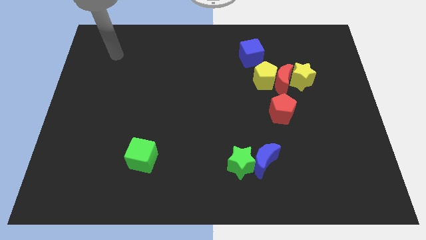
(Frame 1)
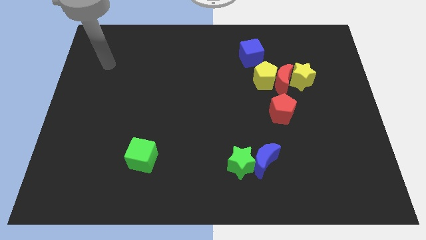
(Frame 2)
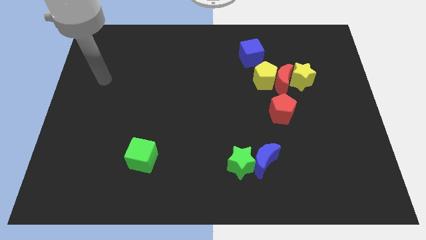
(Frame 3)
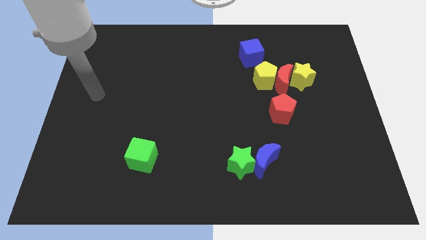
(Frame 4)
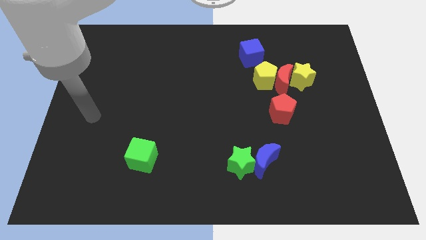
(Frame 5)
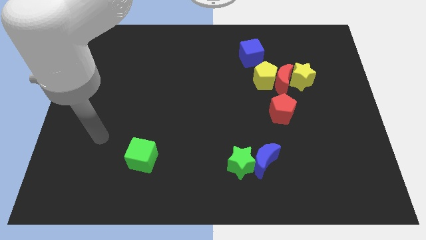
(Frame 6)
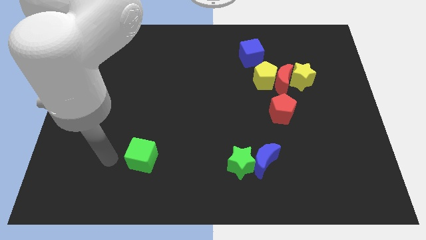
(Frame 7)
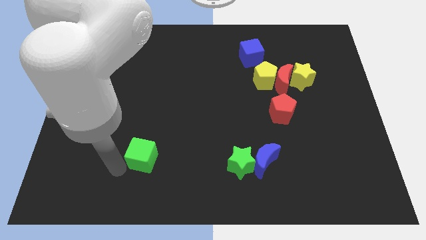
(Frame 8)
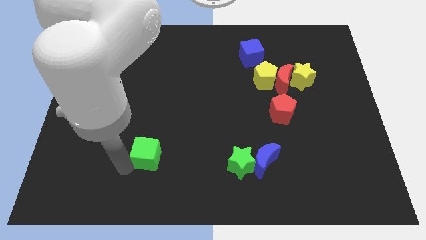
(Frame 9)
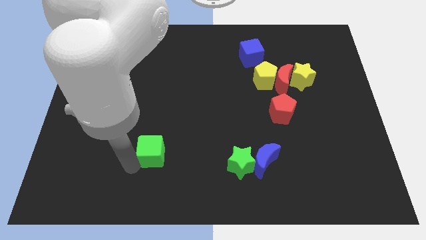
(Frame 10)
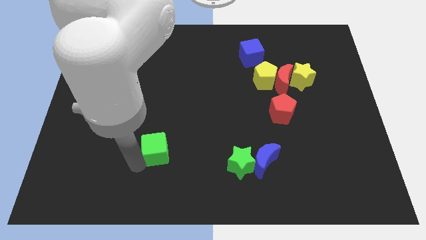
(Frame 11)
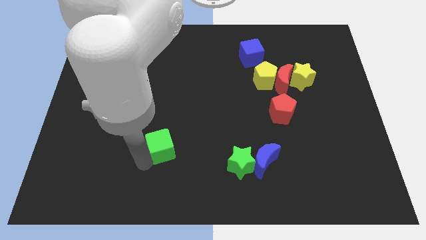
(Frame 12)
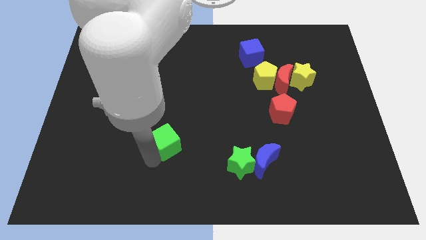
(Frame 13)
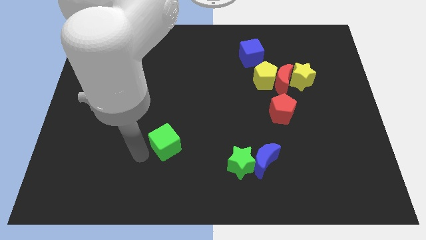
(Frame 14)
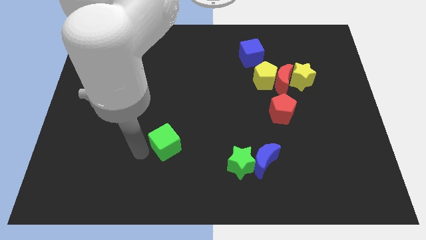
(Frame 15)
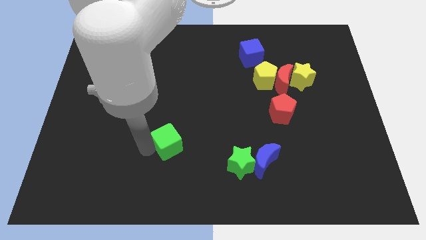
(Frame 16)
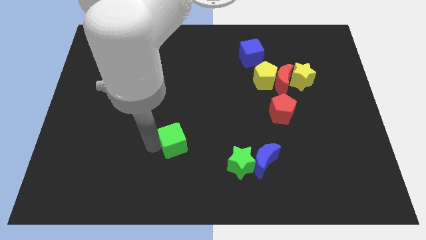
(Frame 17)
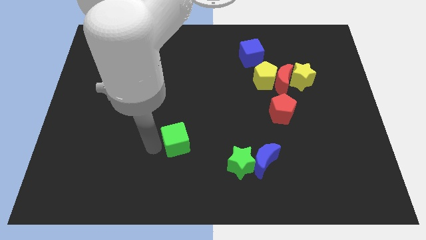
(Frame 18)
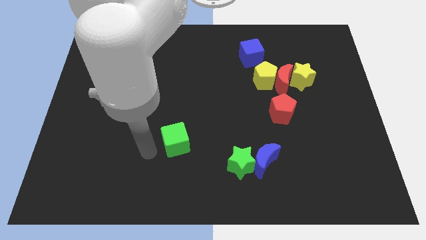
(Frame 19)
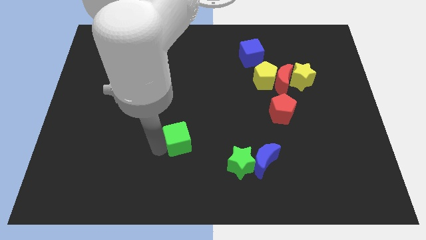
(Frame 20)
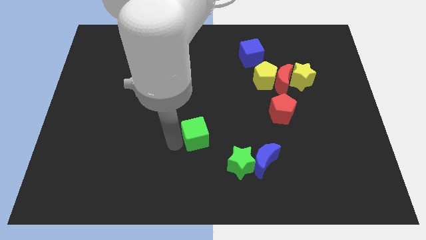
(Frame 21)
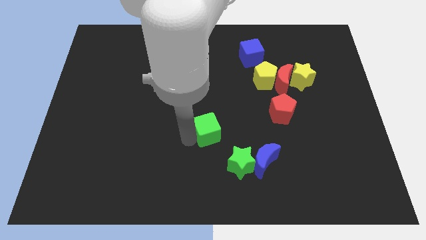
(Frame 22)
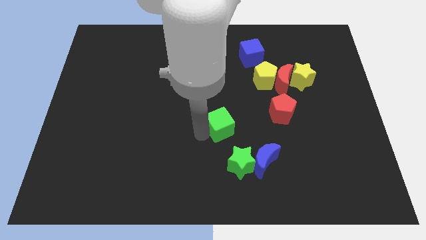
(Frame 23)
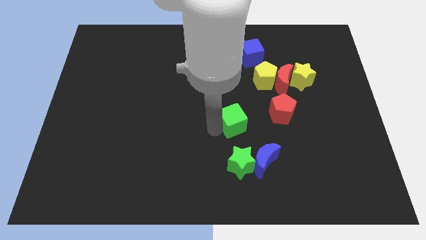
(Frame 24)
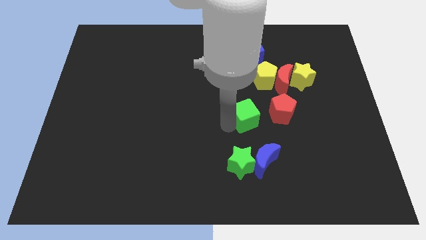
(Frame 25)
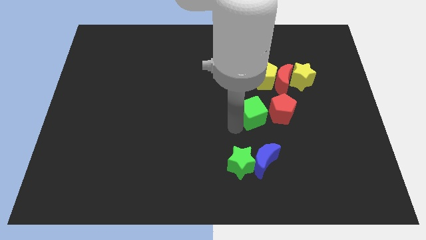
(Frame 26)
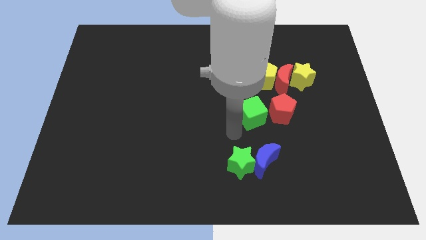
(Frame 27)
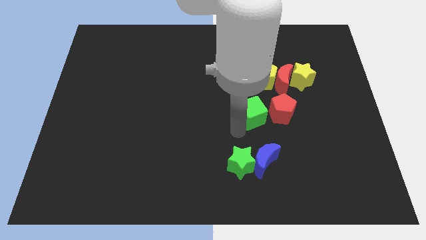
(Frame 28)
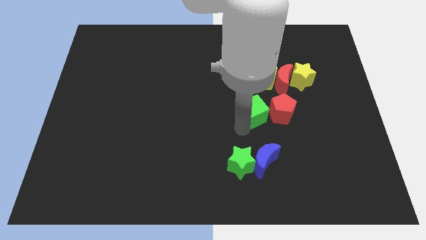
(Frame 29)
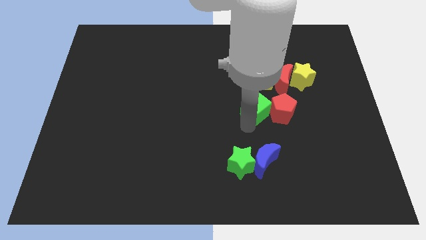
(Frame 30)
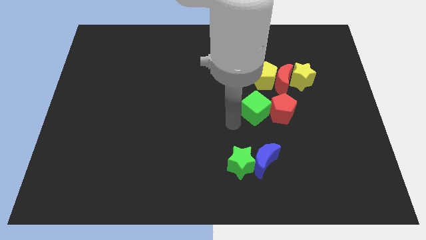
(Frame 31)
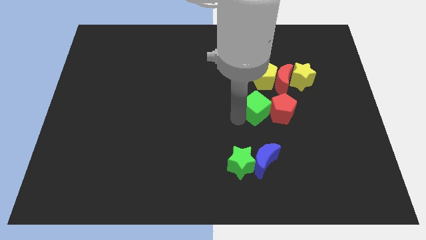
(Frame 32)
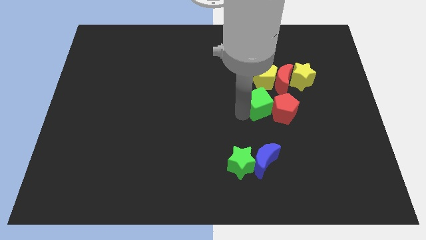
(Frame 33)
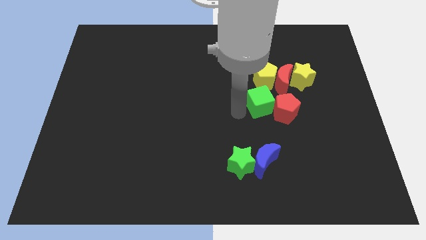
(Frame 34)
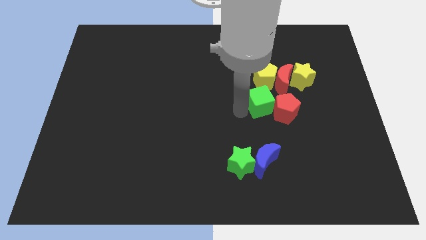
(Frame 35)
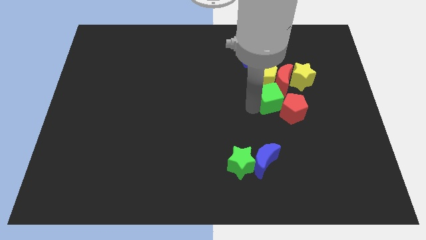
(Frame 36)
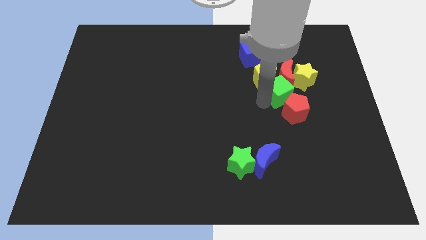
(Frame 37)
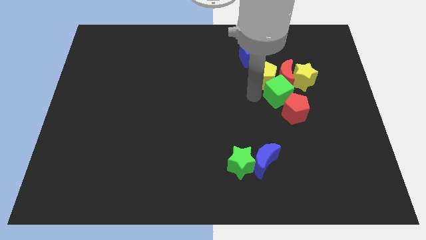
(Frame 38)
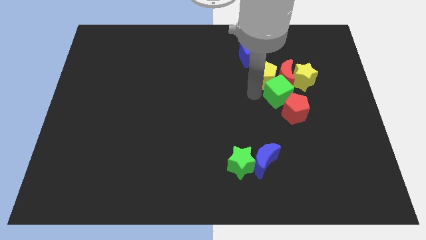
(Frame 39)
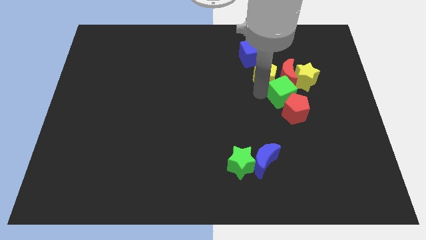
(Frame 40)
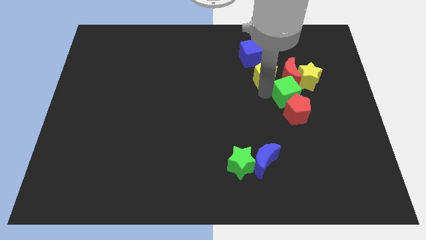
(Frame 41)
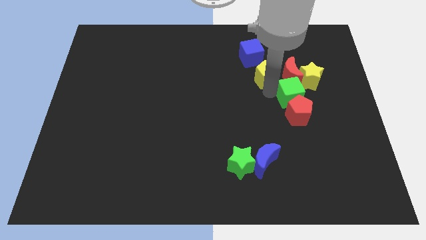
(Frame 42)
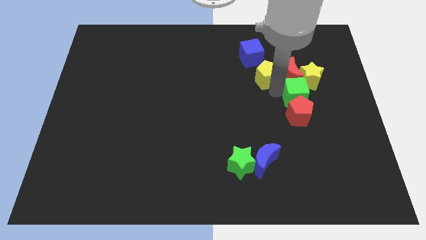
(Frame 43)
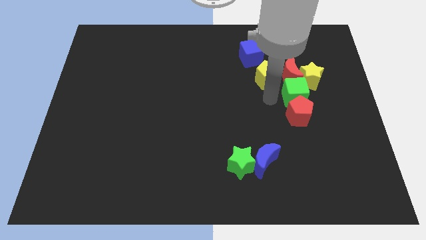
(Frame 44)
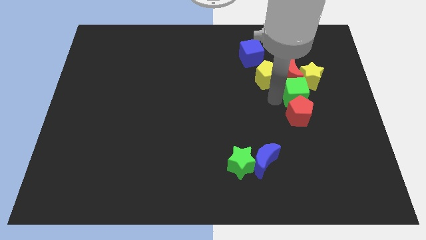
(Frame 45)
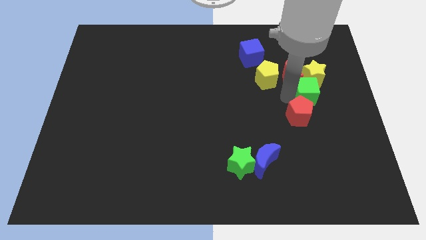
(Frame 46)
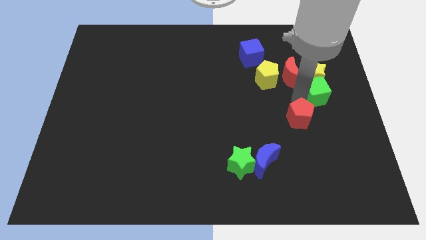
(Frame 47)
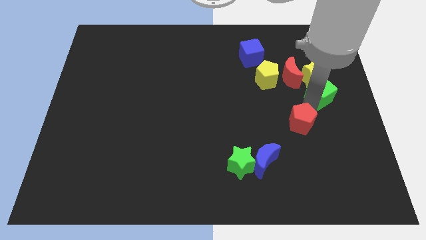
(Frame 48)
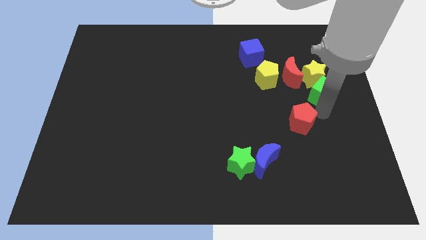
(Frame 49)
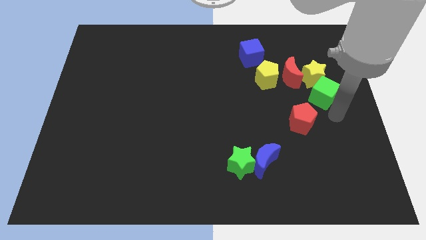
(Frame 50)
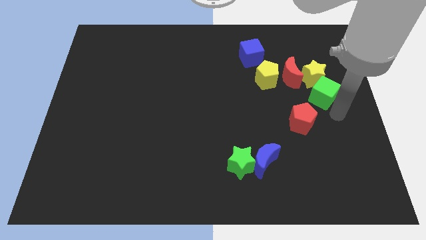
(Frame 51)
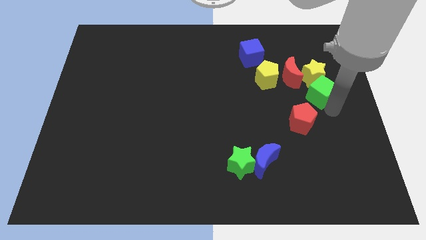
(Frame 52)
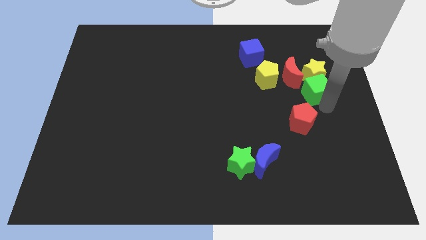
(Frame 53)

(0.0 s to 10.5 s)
push the green cube to the right of the yellow pentagon

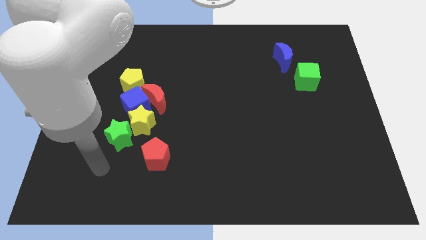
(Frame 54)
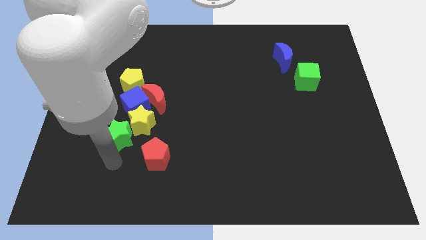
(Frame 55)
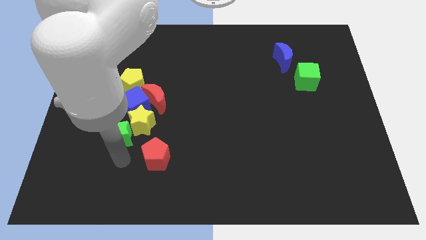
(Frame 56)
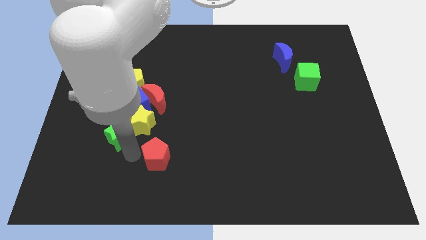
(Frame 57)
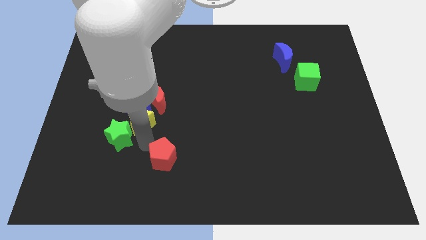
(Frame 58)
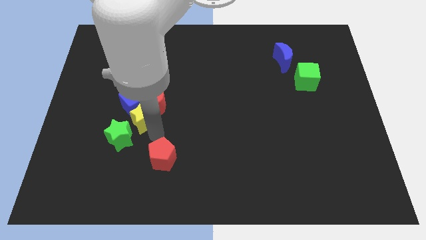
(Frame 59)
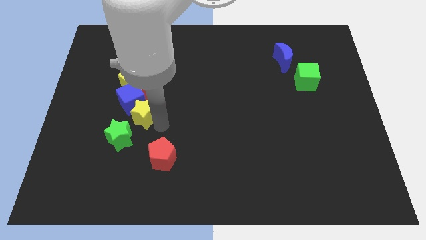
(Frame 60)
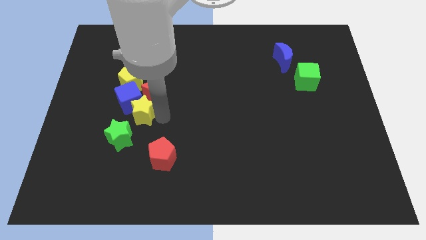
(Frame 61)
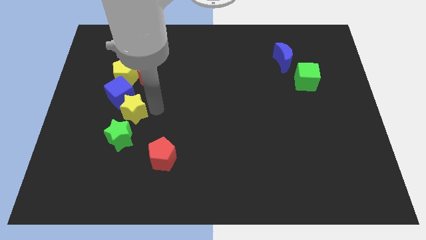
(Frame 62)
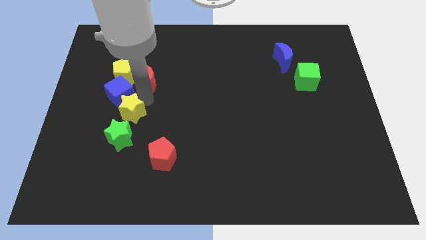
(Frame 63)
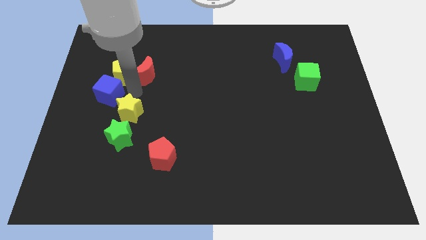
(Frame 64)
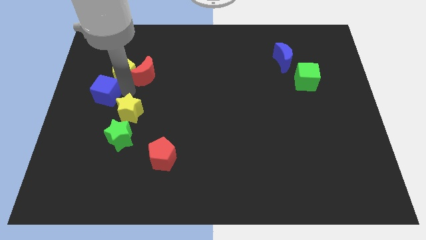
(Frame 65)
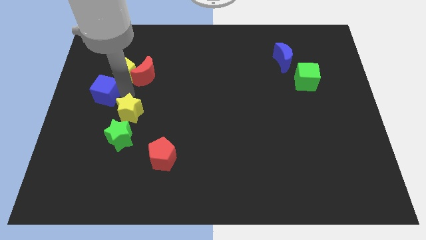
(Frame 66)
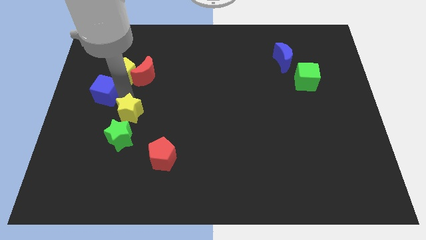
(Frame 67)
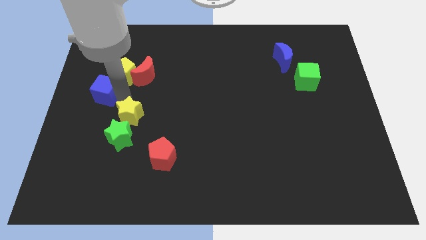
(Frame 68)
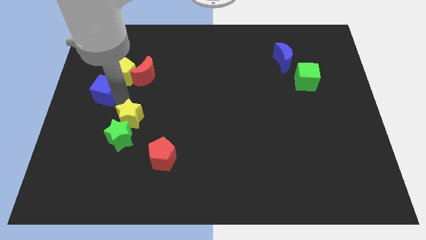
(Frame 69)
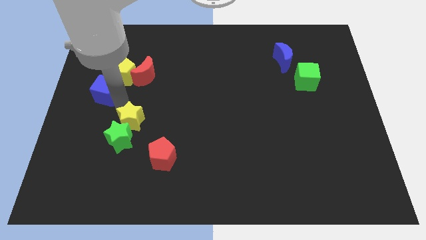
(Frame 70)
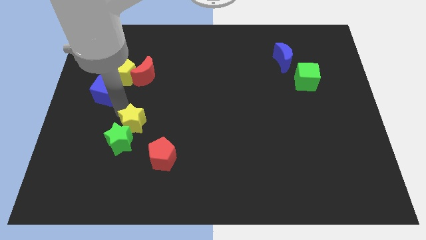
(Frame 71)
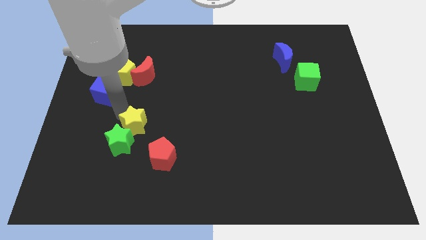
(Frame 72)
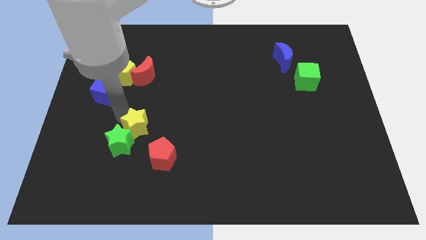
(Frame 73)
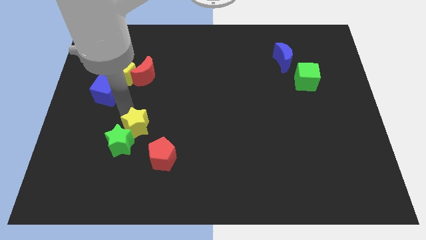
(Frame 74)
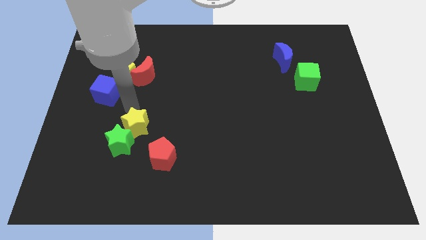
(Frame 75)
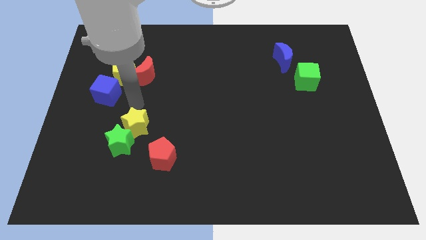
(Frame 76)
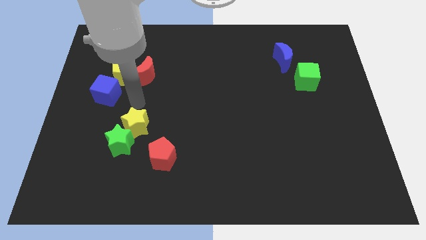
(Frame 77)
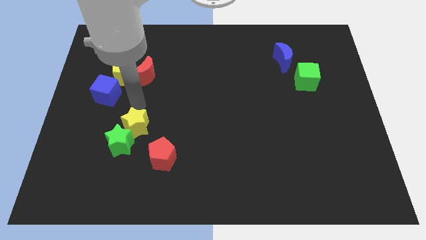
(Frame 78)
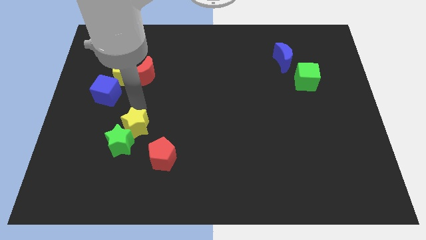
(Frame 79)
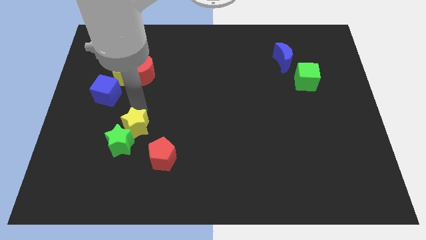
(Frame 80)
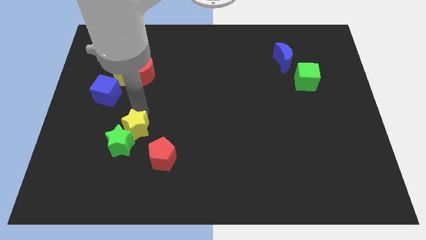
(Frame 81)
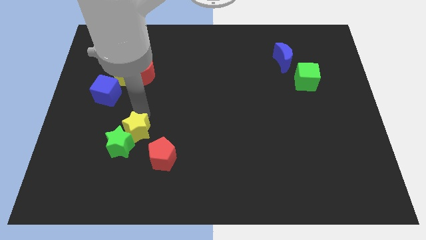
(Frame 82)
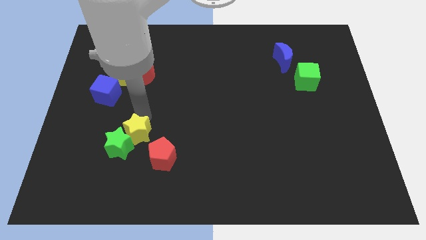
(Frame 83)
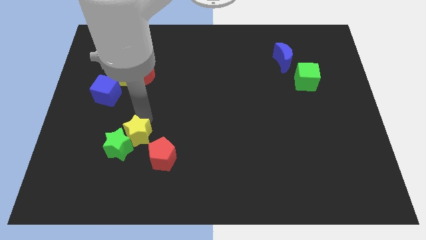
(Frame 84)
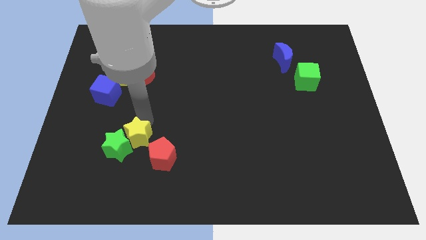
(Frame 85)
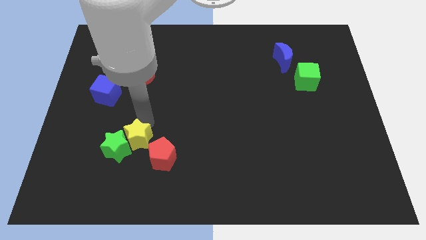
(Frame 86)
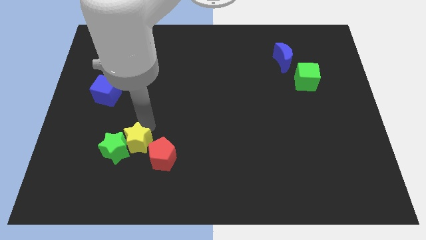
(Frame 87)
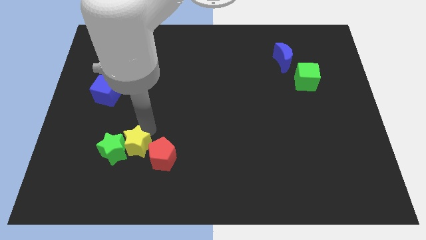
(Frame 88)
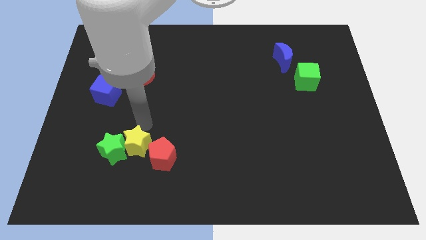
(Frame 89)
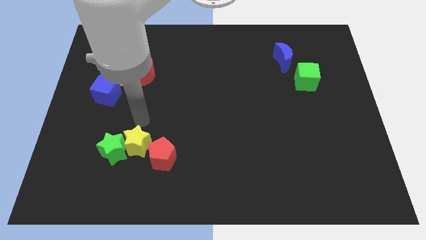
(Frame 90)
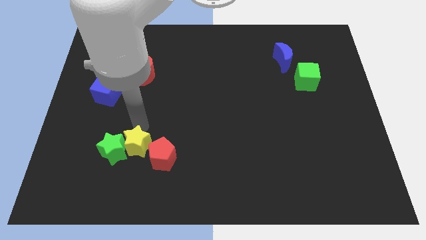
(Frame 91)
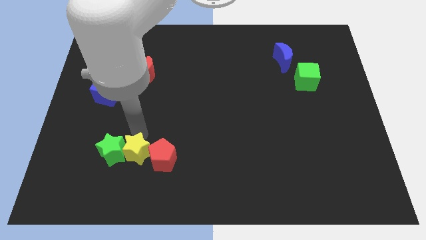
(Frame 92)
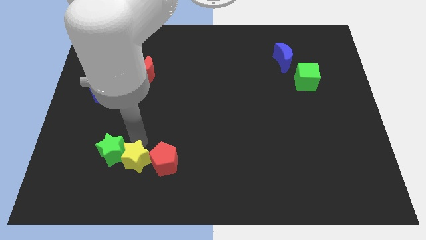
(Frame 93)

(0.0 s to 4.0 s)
push the yellow star to the bottom left side of the red pentagon
